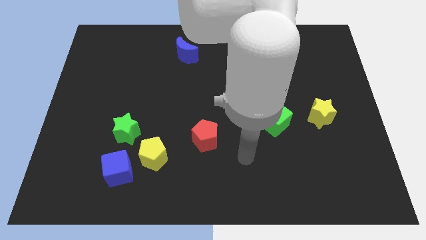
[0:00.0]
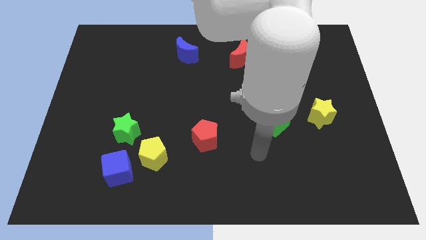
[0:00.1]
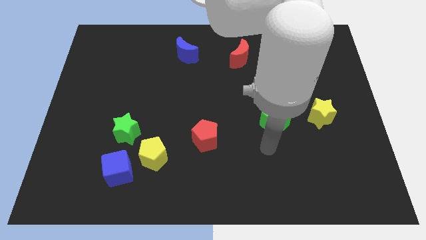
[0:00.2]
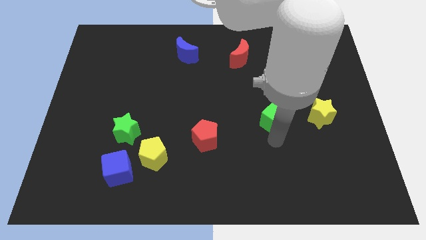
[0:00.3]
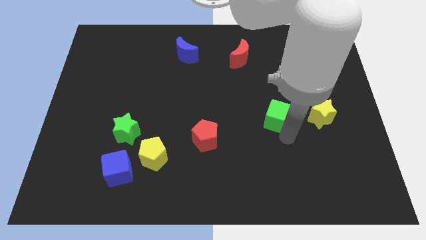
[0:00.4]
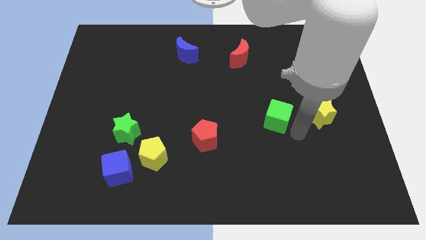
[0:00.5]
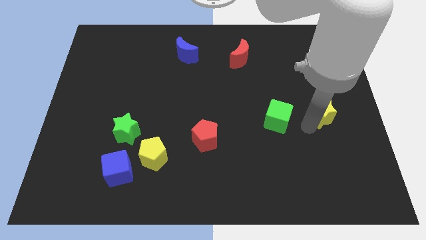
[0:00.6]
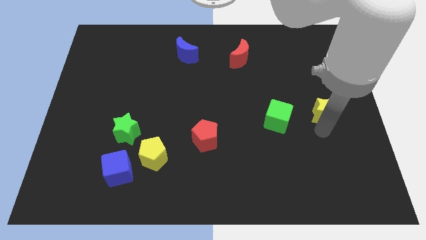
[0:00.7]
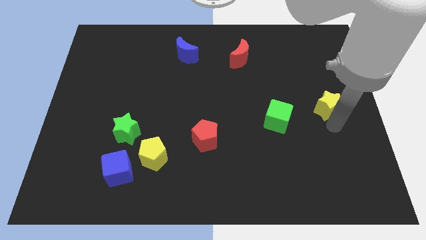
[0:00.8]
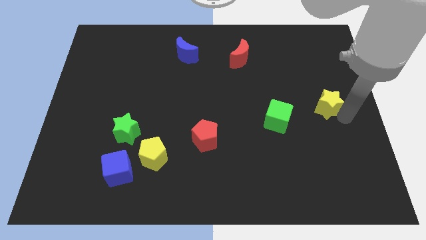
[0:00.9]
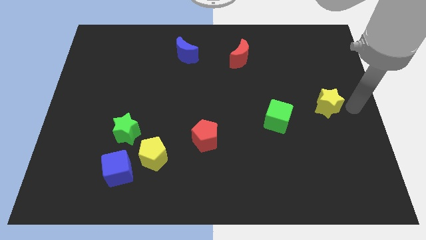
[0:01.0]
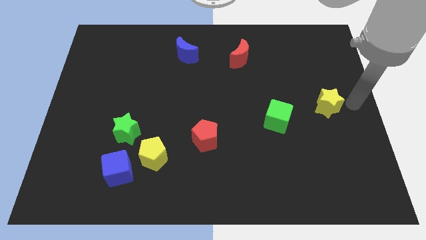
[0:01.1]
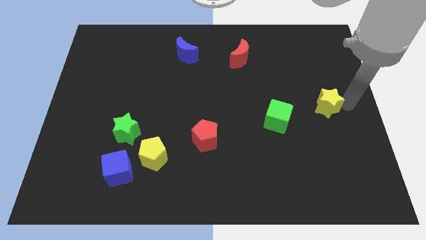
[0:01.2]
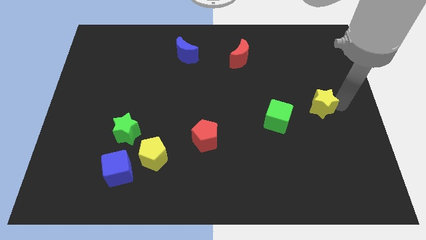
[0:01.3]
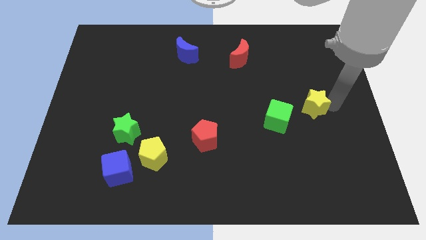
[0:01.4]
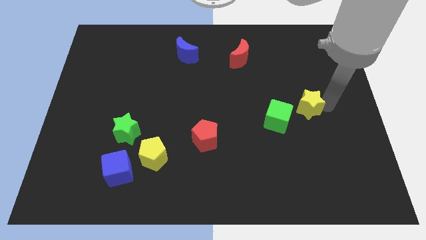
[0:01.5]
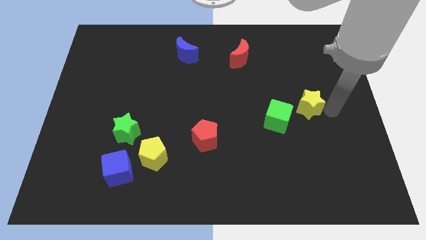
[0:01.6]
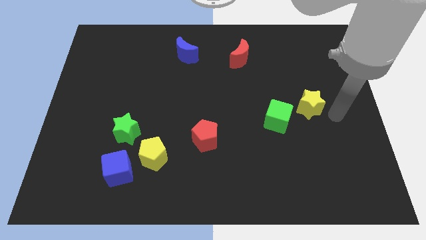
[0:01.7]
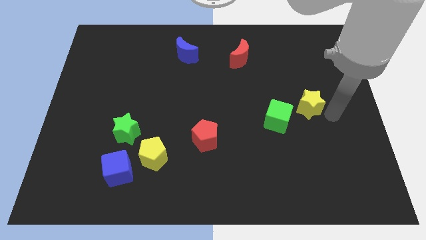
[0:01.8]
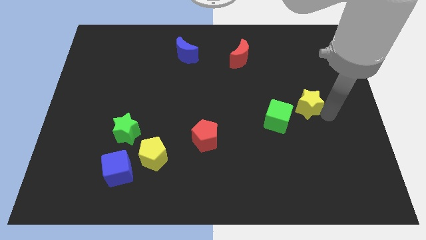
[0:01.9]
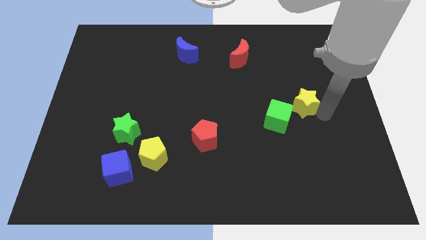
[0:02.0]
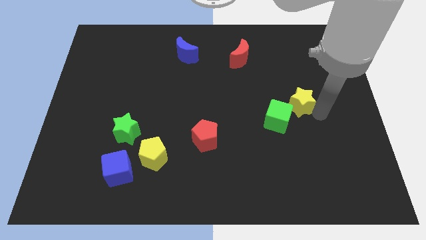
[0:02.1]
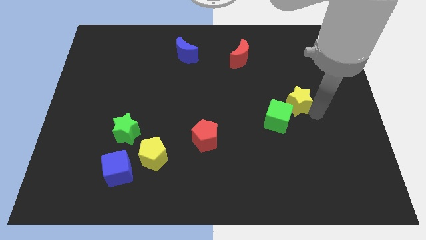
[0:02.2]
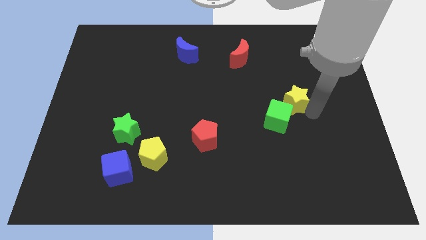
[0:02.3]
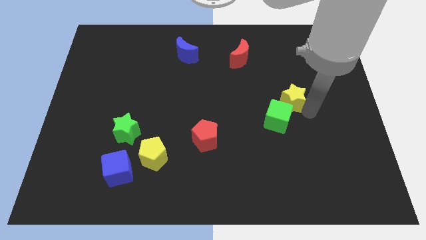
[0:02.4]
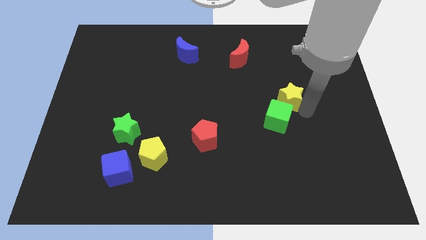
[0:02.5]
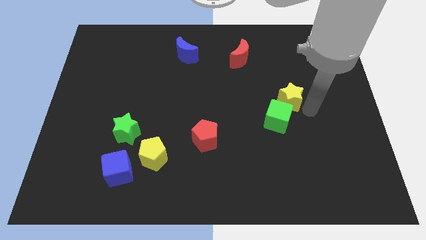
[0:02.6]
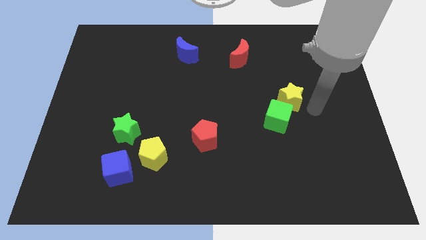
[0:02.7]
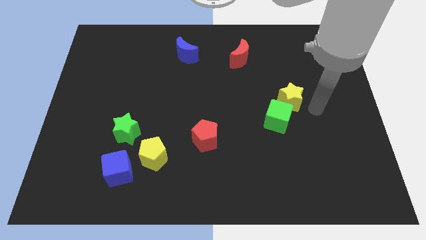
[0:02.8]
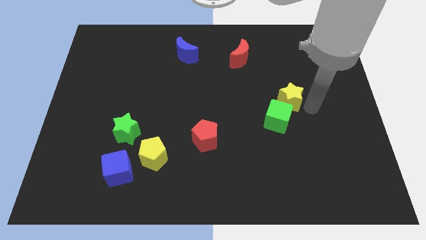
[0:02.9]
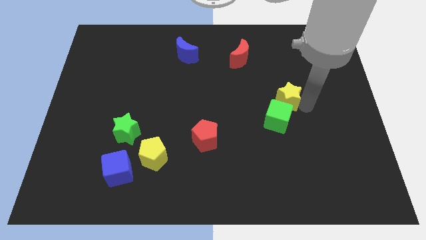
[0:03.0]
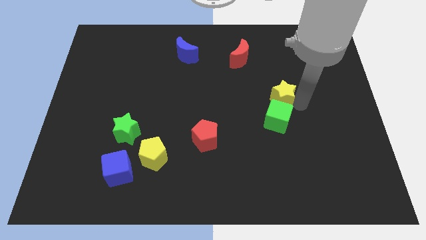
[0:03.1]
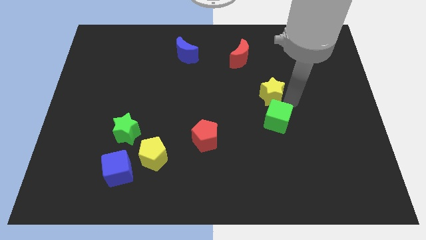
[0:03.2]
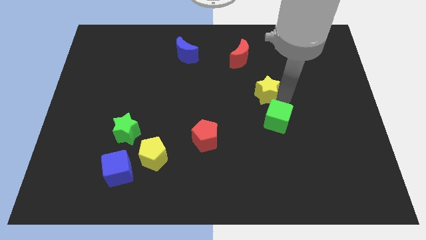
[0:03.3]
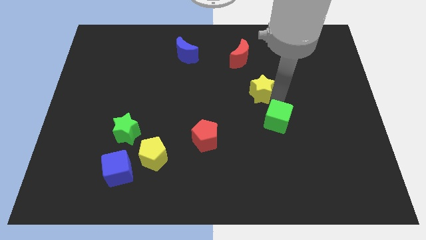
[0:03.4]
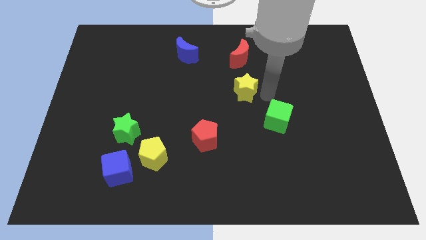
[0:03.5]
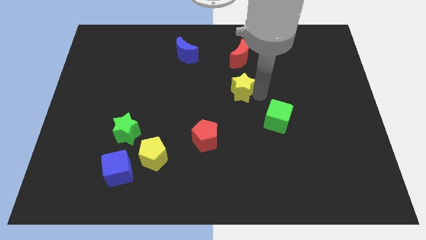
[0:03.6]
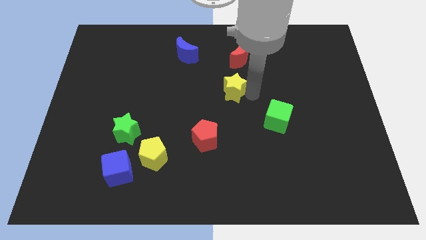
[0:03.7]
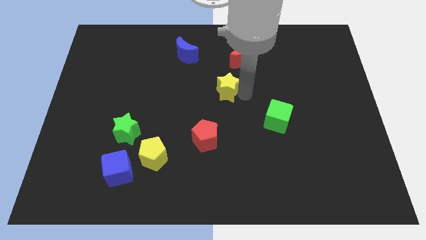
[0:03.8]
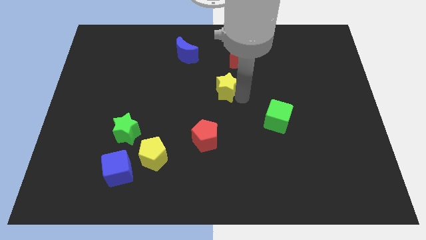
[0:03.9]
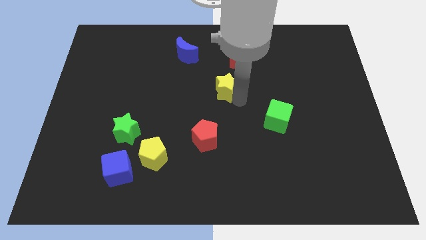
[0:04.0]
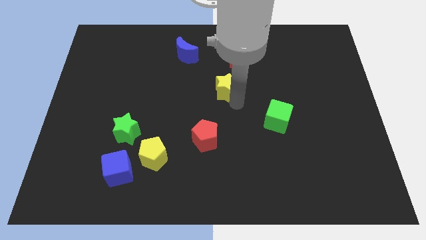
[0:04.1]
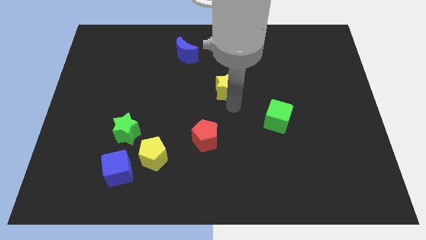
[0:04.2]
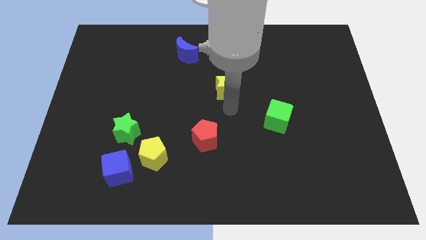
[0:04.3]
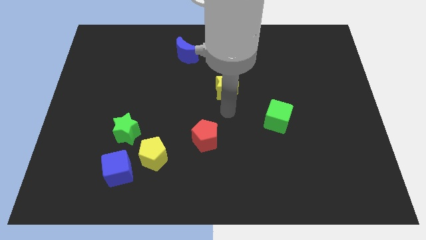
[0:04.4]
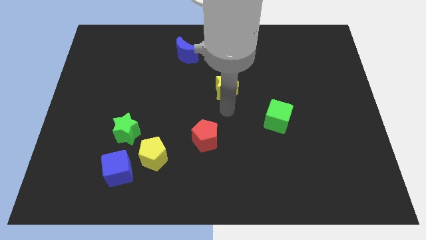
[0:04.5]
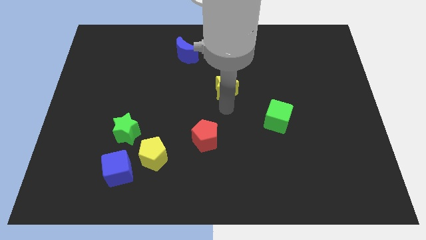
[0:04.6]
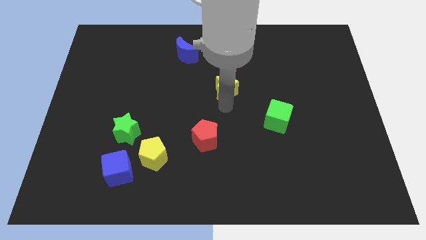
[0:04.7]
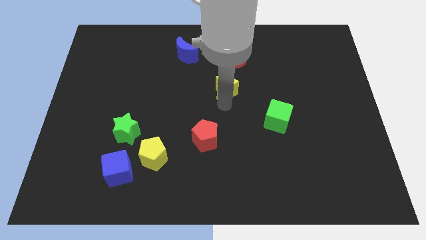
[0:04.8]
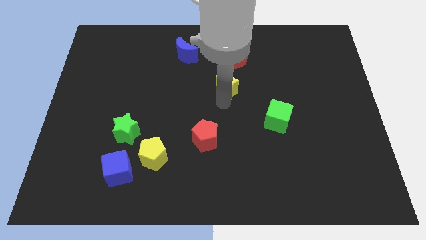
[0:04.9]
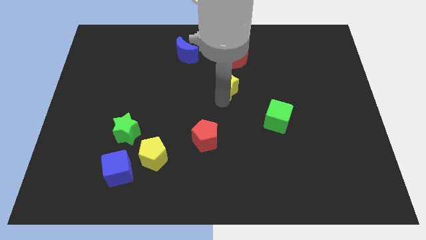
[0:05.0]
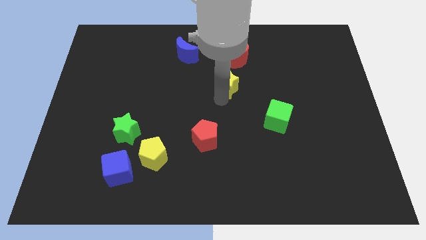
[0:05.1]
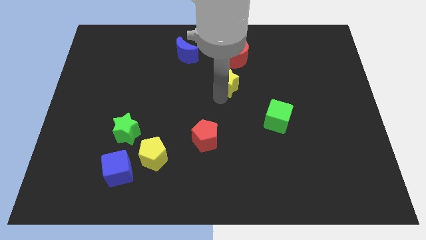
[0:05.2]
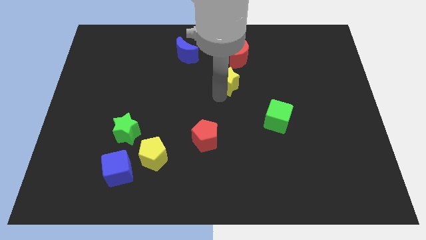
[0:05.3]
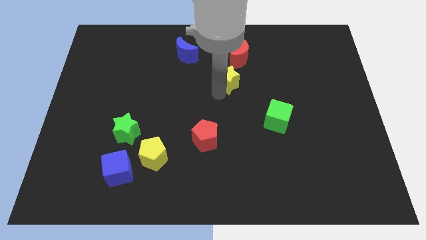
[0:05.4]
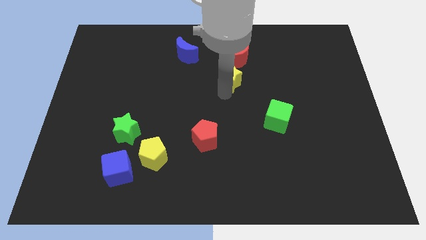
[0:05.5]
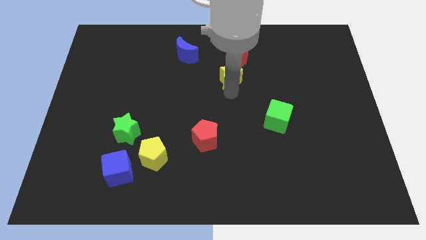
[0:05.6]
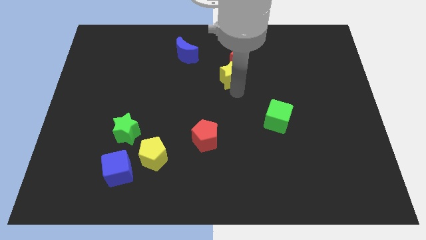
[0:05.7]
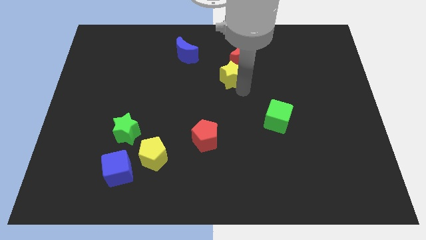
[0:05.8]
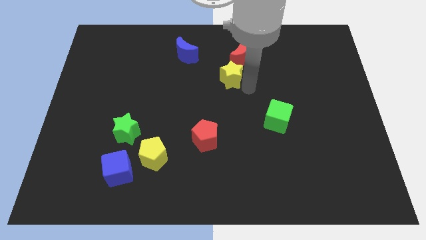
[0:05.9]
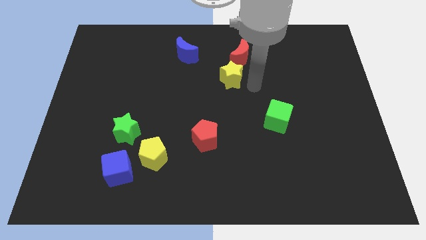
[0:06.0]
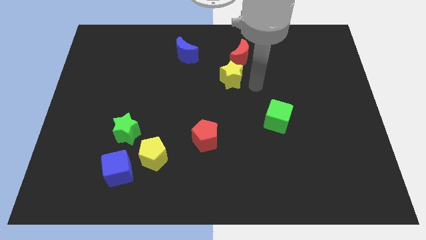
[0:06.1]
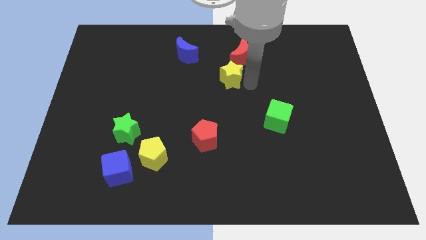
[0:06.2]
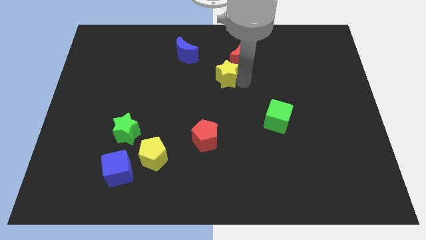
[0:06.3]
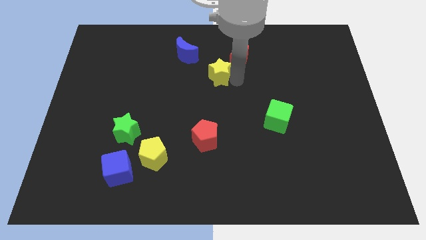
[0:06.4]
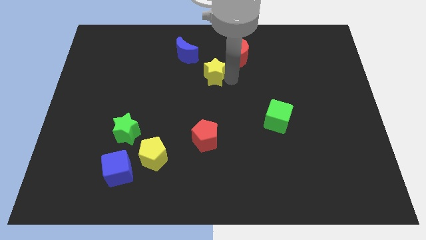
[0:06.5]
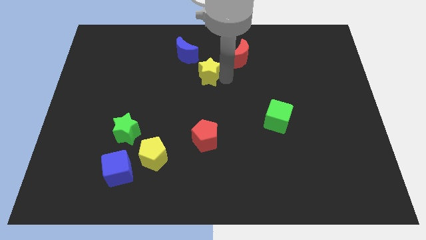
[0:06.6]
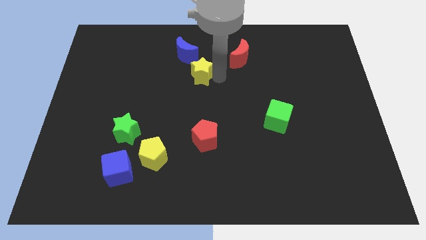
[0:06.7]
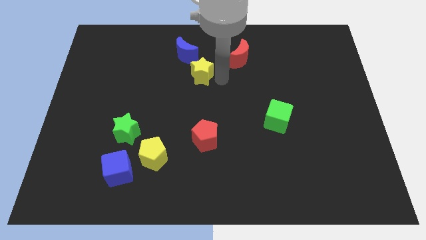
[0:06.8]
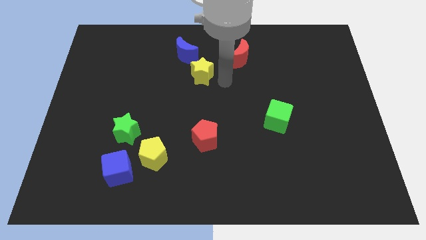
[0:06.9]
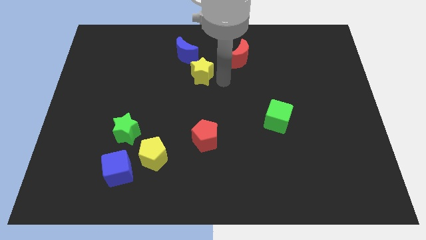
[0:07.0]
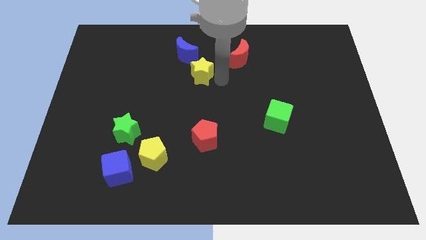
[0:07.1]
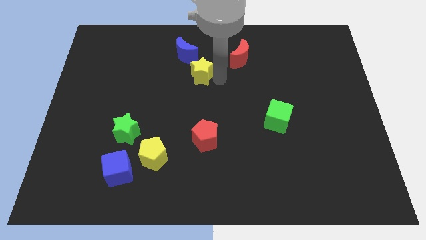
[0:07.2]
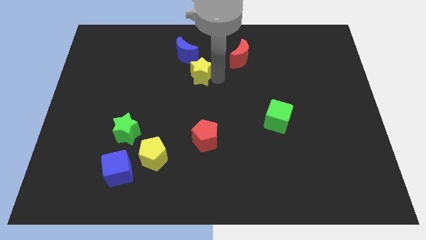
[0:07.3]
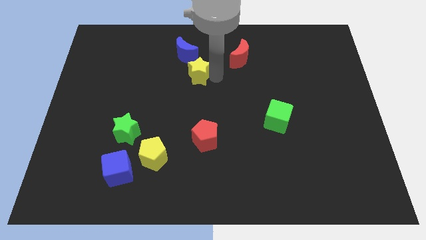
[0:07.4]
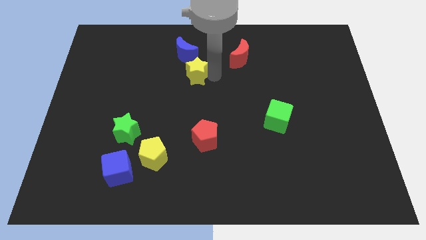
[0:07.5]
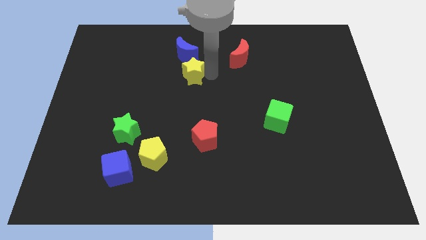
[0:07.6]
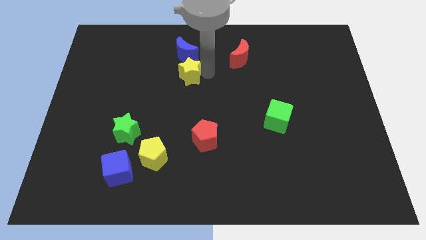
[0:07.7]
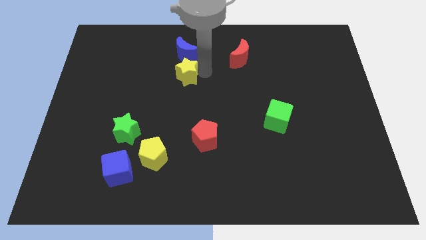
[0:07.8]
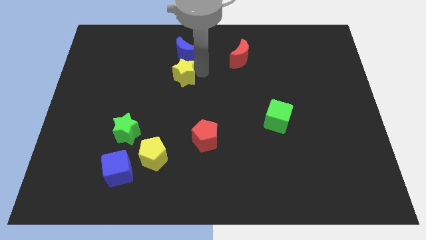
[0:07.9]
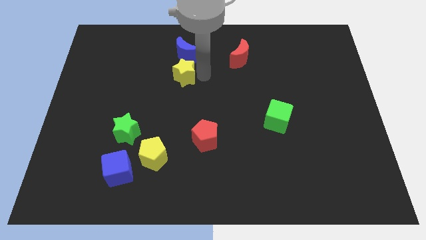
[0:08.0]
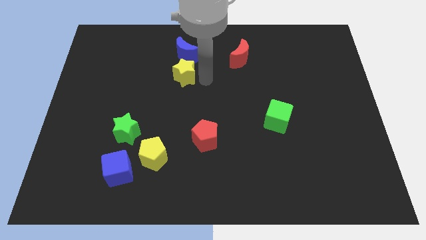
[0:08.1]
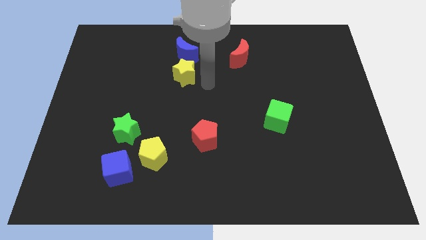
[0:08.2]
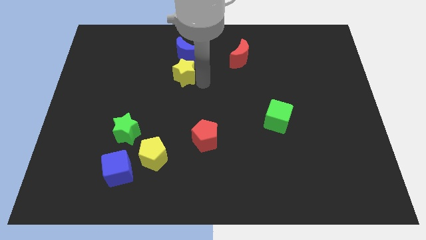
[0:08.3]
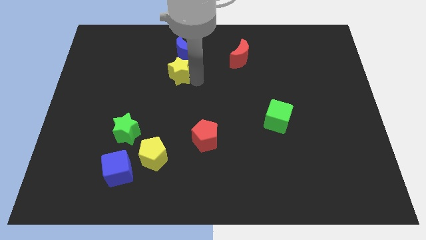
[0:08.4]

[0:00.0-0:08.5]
slide the yellow star to the bottom left side of the blue moon
